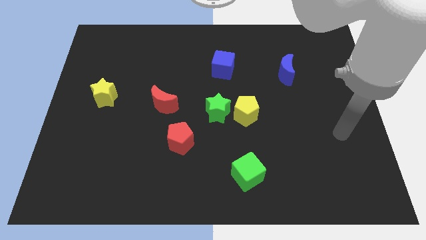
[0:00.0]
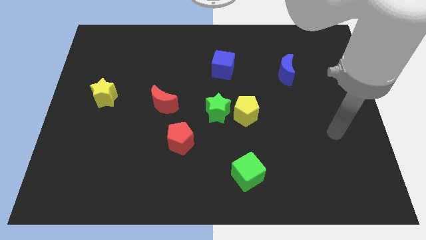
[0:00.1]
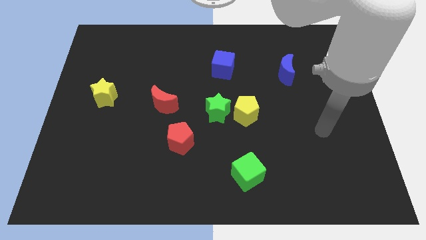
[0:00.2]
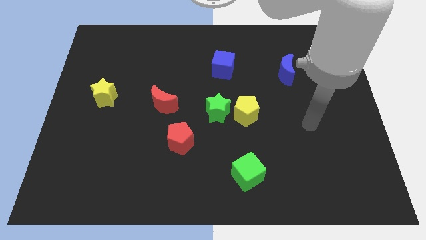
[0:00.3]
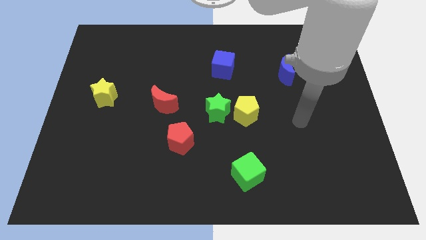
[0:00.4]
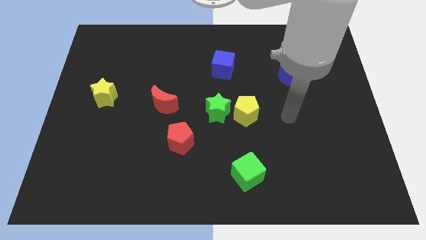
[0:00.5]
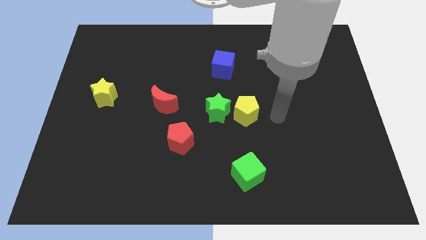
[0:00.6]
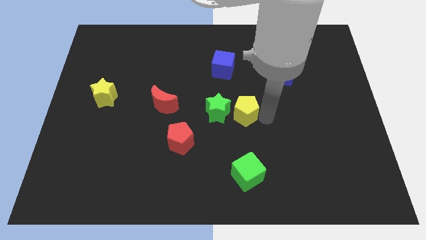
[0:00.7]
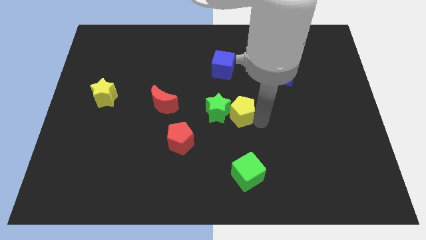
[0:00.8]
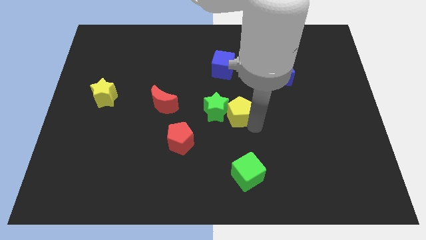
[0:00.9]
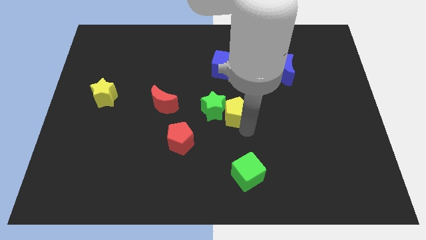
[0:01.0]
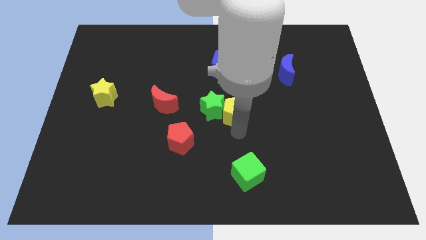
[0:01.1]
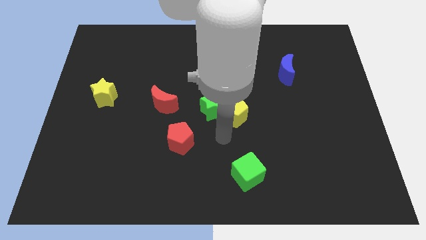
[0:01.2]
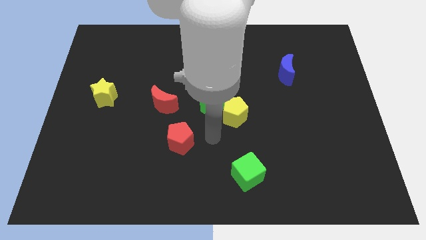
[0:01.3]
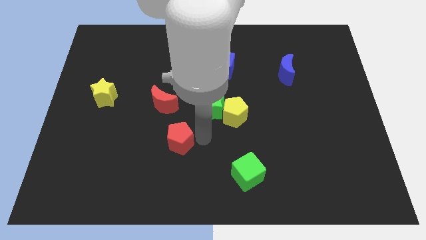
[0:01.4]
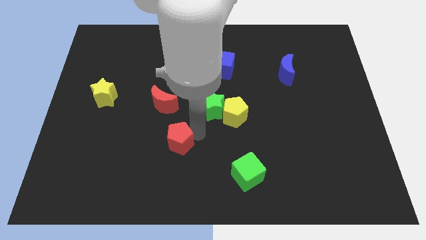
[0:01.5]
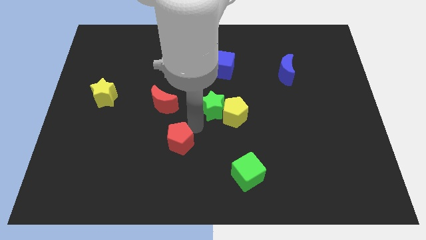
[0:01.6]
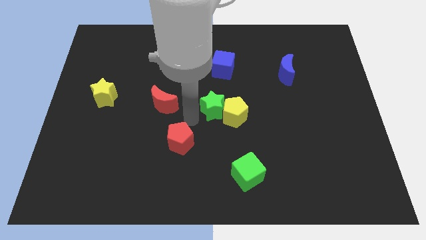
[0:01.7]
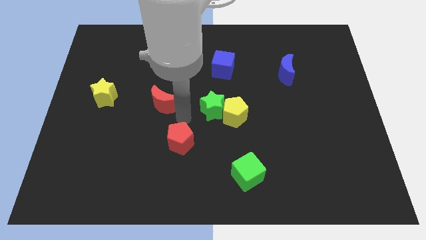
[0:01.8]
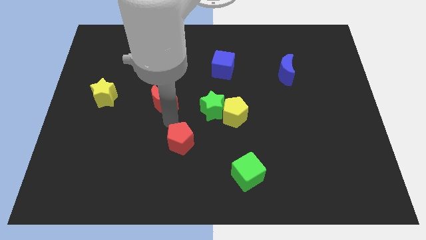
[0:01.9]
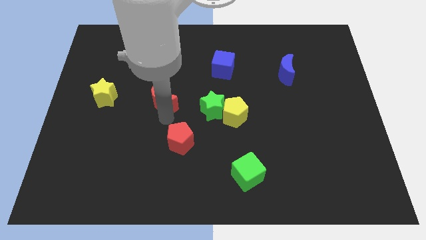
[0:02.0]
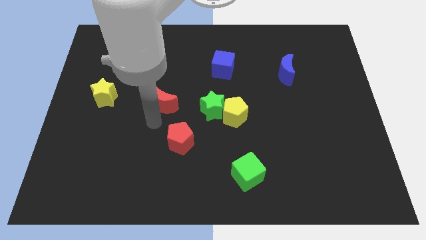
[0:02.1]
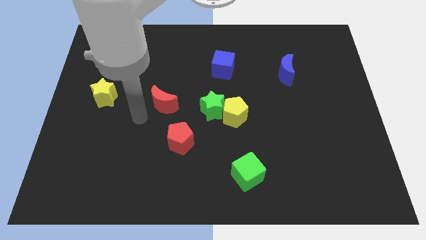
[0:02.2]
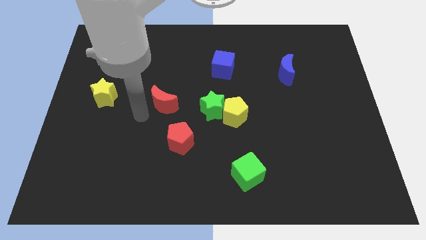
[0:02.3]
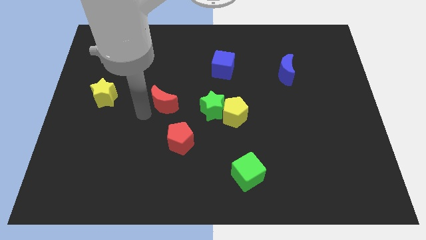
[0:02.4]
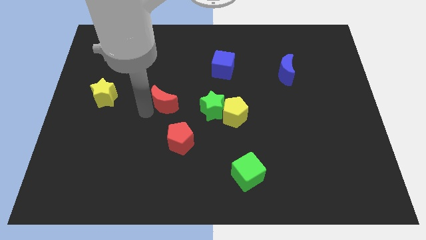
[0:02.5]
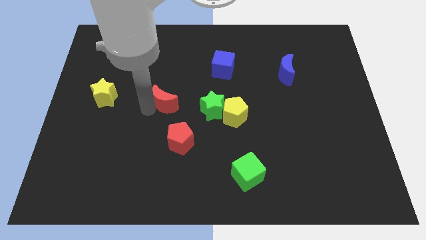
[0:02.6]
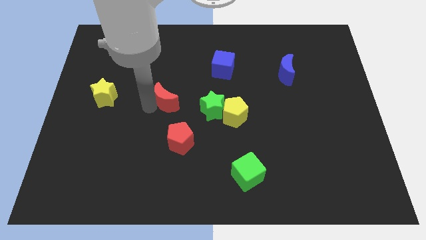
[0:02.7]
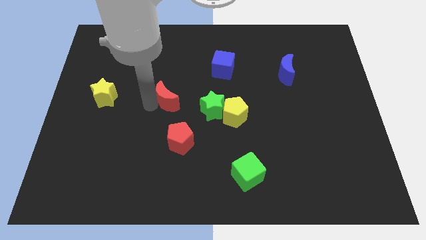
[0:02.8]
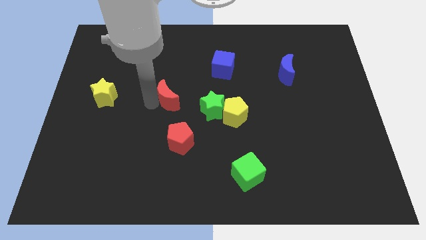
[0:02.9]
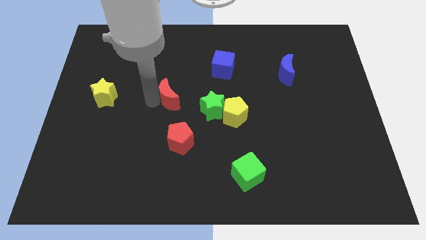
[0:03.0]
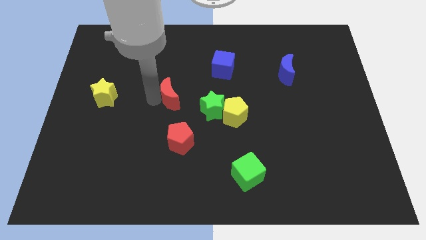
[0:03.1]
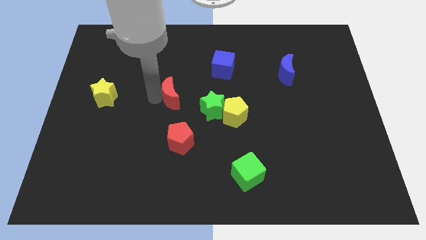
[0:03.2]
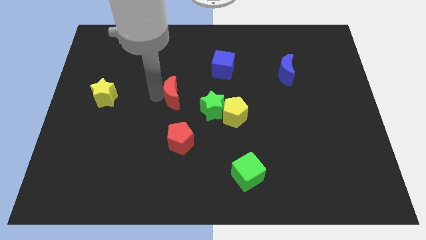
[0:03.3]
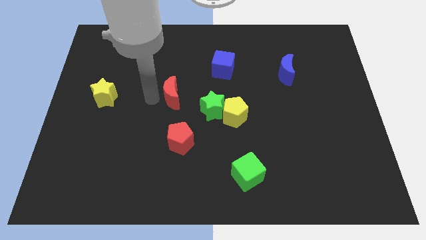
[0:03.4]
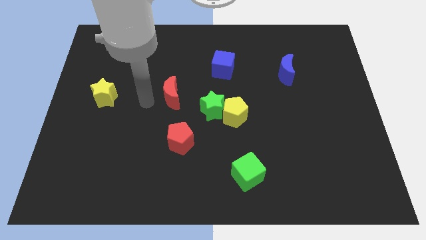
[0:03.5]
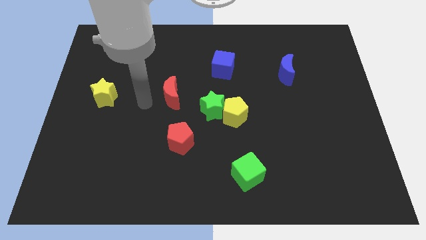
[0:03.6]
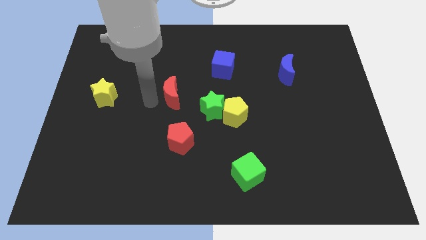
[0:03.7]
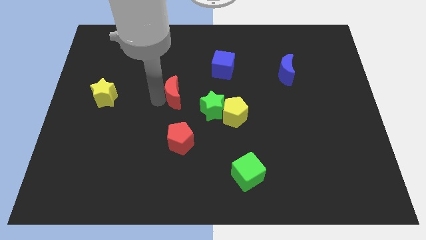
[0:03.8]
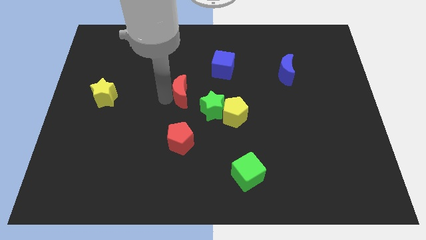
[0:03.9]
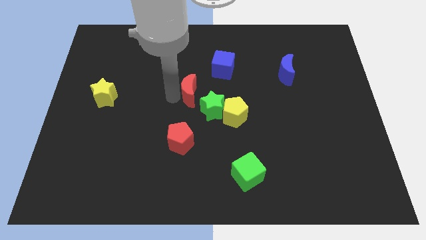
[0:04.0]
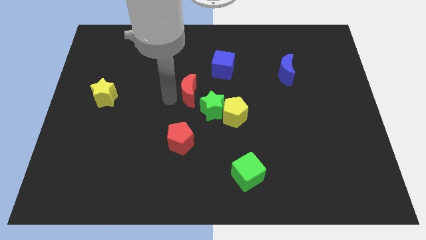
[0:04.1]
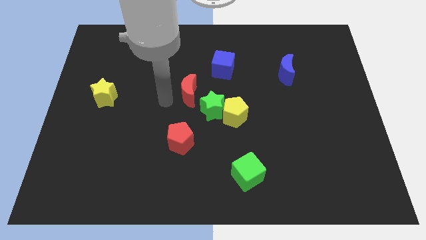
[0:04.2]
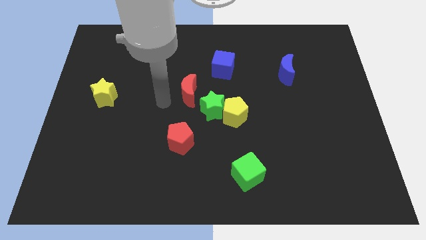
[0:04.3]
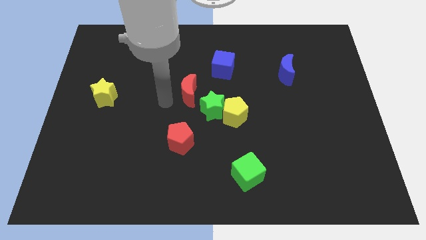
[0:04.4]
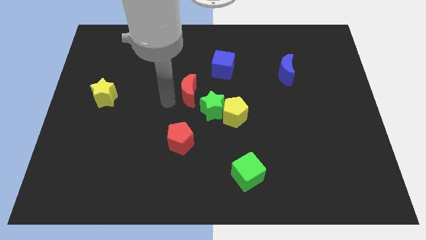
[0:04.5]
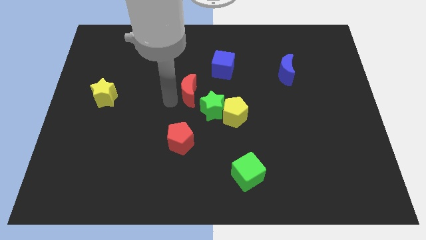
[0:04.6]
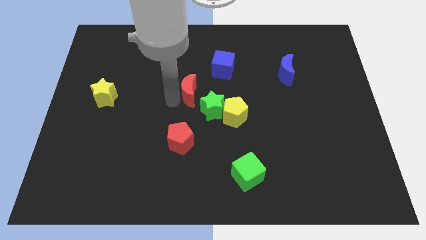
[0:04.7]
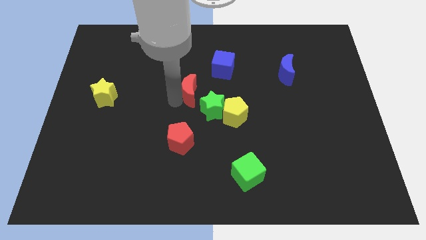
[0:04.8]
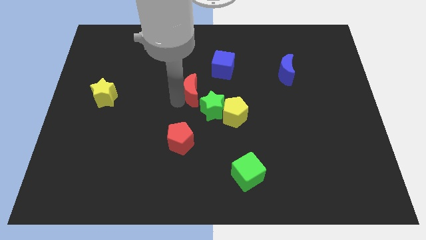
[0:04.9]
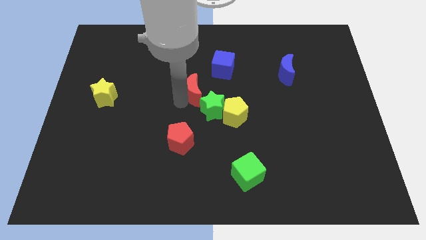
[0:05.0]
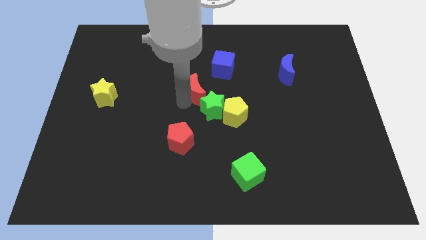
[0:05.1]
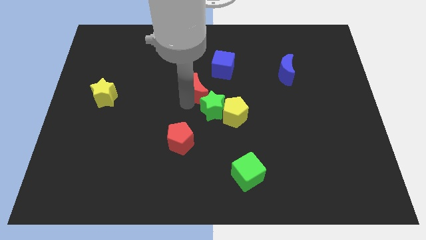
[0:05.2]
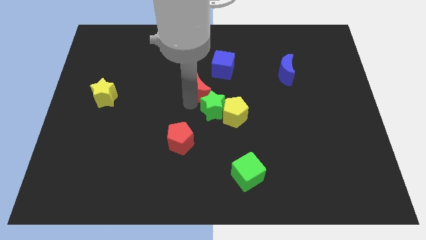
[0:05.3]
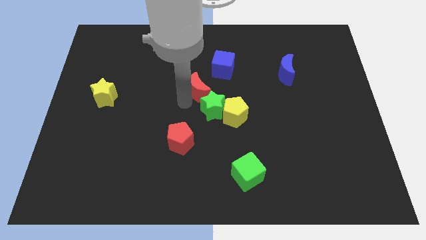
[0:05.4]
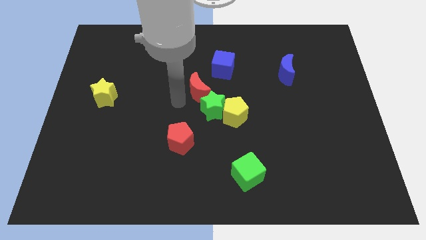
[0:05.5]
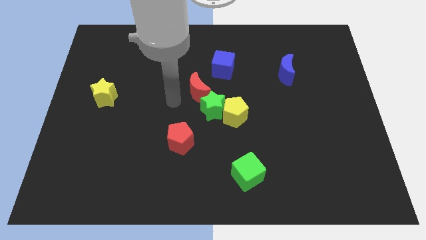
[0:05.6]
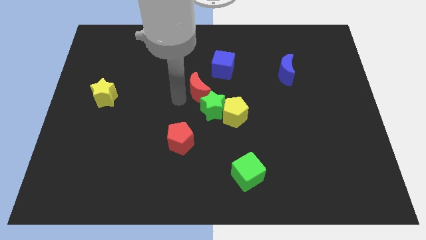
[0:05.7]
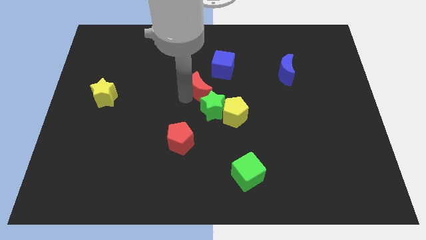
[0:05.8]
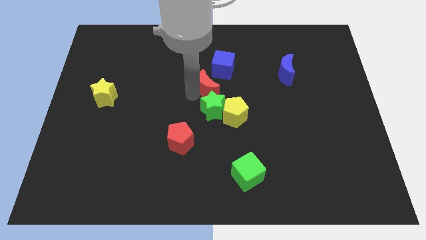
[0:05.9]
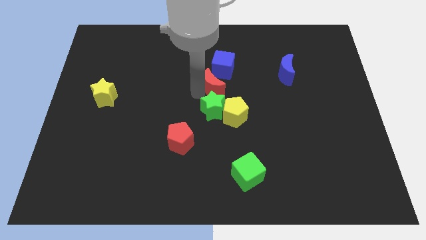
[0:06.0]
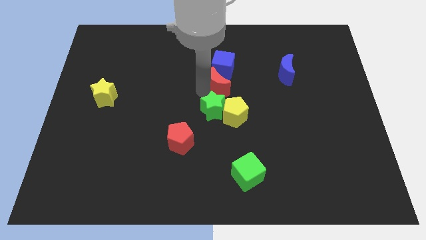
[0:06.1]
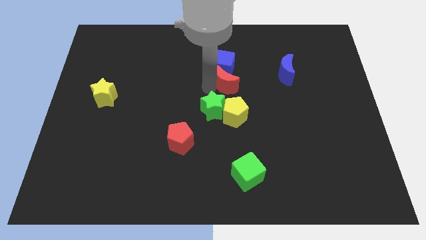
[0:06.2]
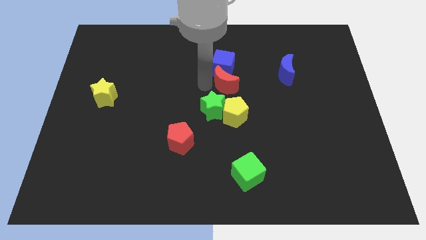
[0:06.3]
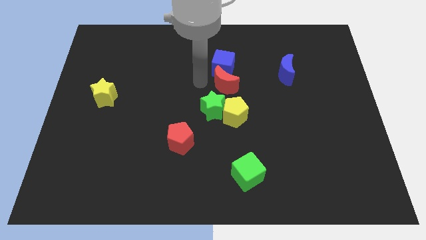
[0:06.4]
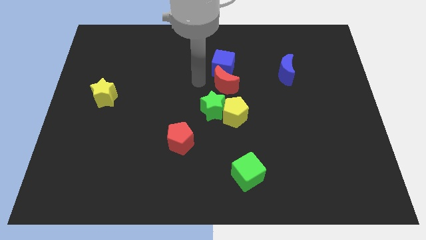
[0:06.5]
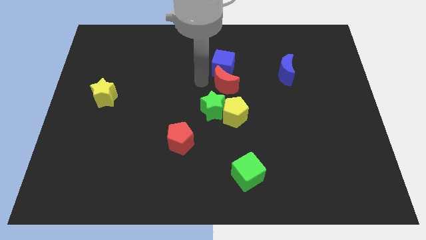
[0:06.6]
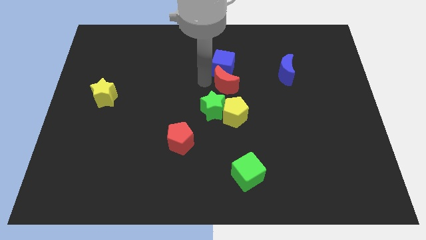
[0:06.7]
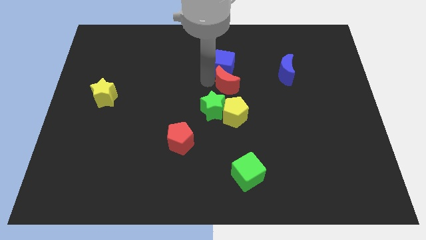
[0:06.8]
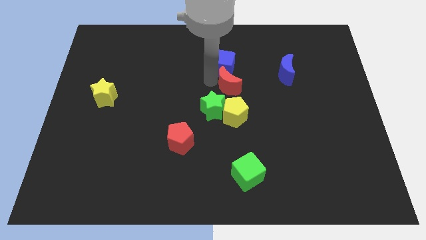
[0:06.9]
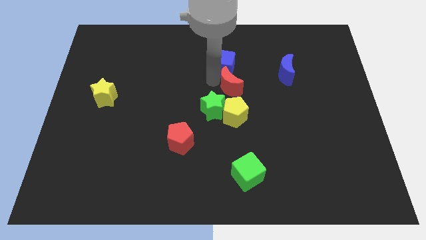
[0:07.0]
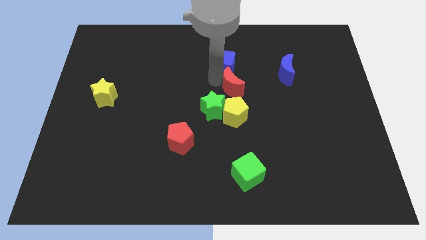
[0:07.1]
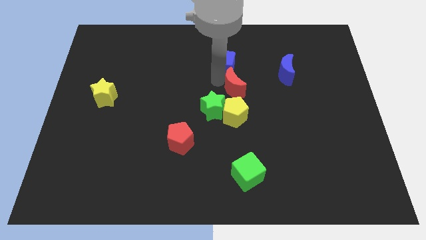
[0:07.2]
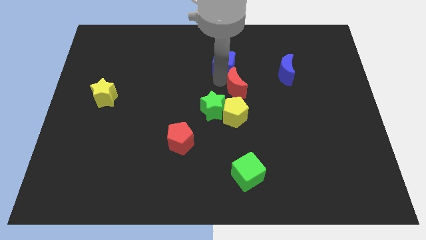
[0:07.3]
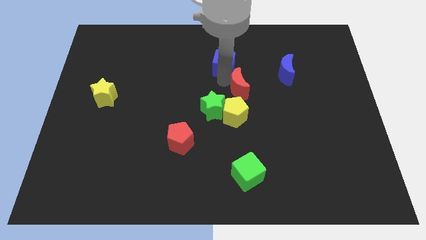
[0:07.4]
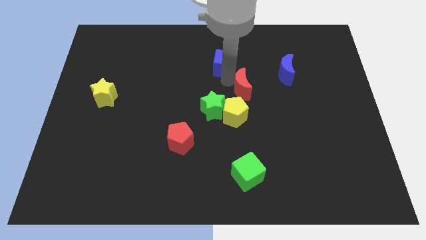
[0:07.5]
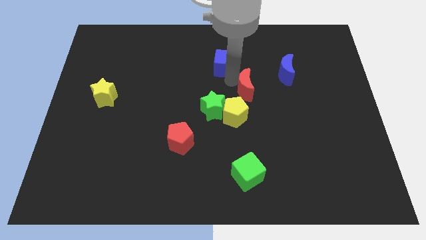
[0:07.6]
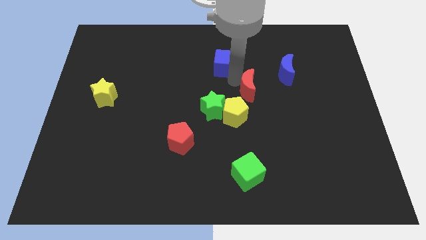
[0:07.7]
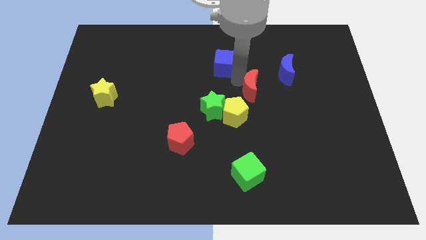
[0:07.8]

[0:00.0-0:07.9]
slide the red moon to the right
